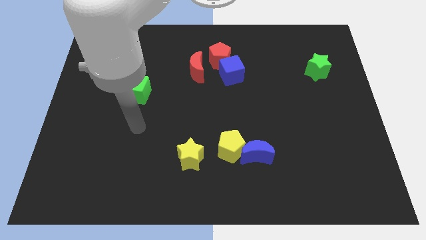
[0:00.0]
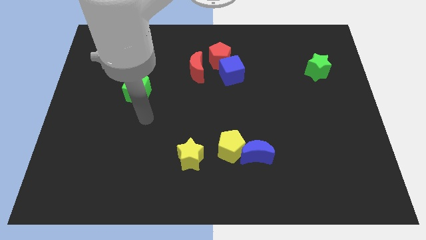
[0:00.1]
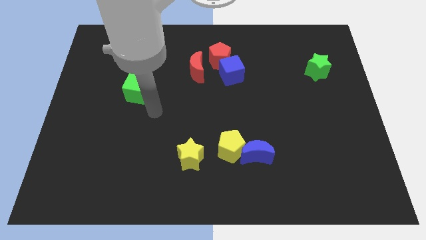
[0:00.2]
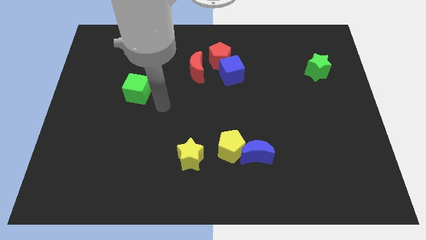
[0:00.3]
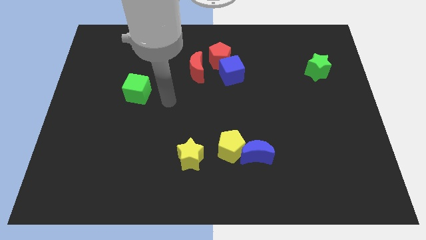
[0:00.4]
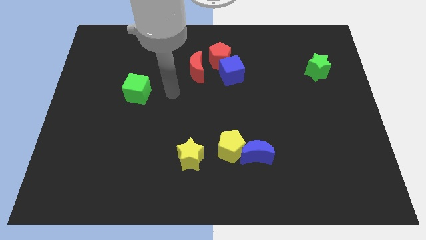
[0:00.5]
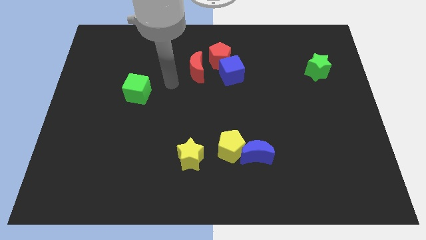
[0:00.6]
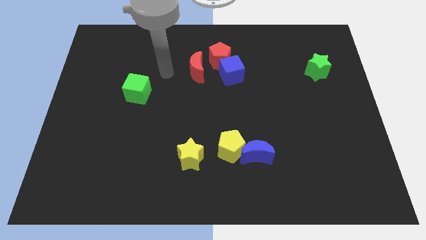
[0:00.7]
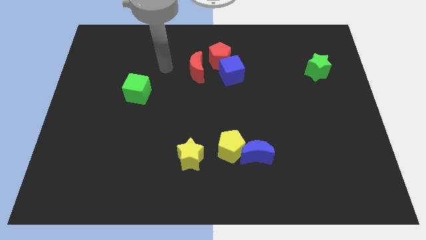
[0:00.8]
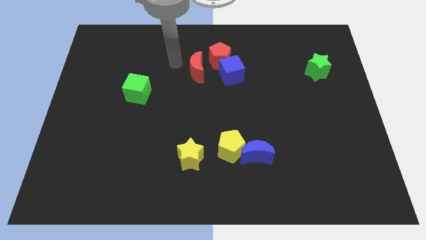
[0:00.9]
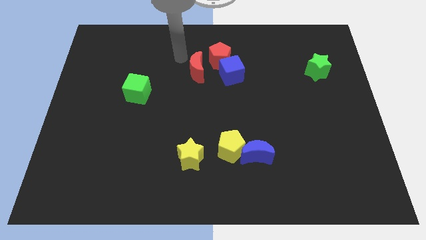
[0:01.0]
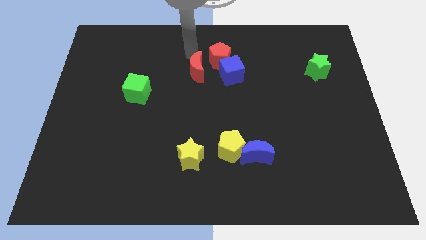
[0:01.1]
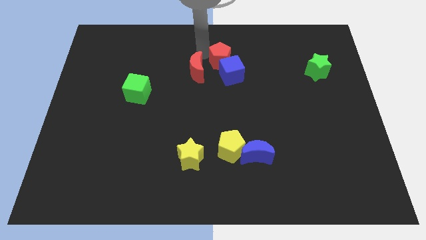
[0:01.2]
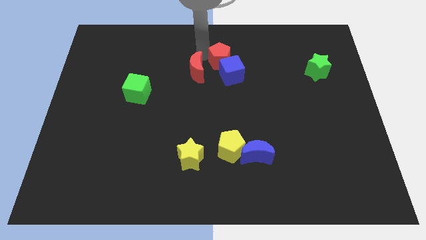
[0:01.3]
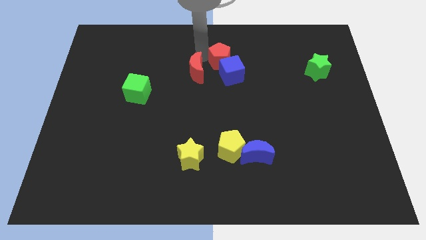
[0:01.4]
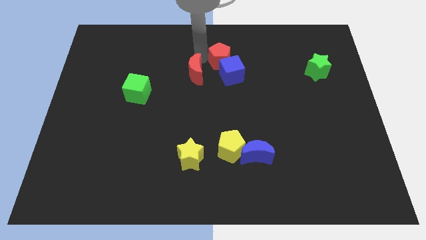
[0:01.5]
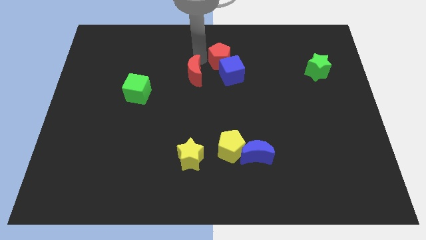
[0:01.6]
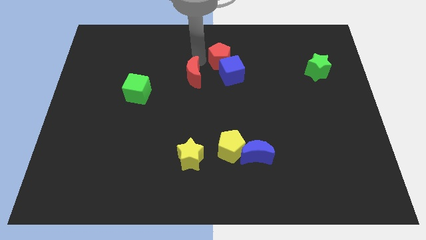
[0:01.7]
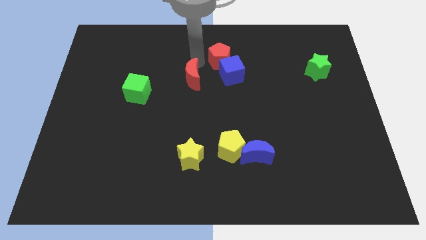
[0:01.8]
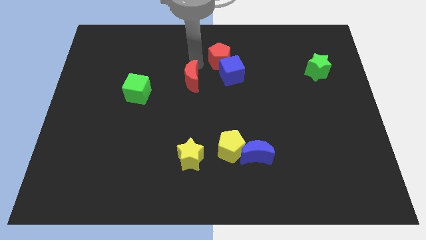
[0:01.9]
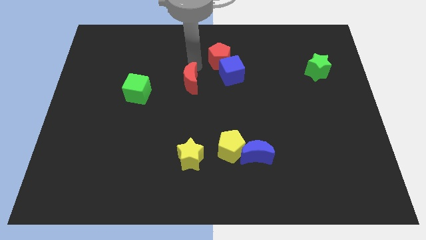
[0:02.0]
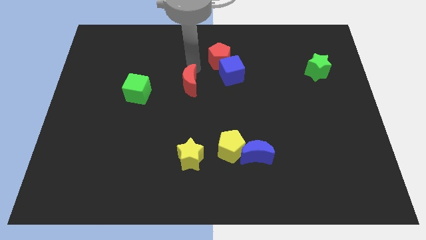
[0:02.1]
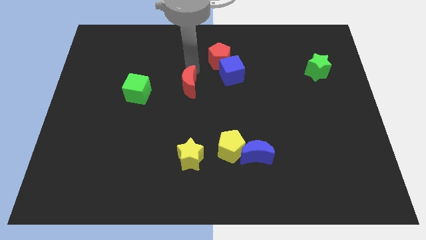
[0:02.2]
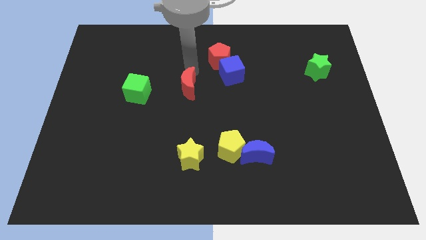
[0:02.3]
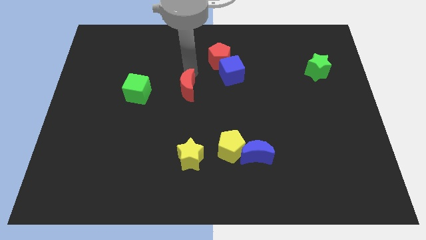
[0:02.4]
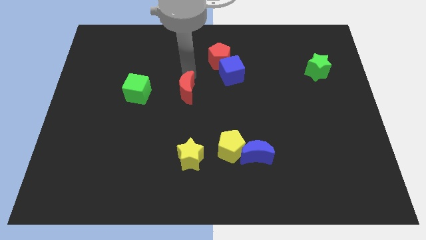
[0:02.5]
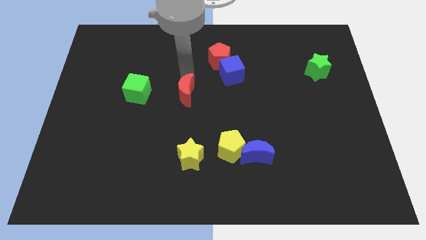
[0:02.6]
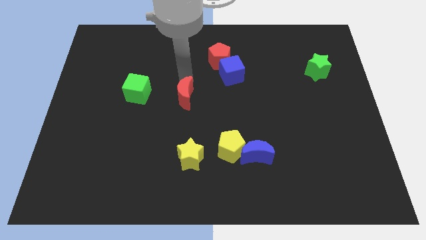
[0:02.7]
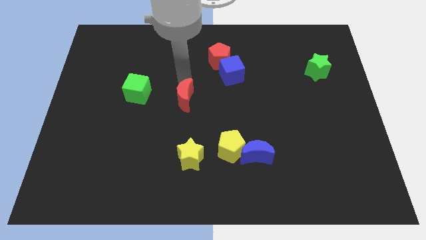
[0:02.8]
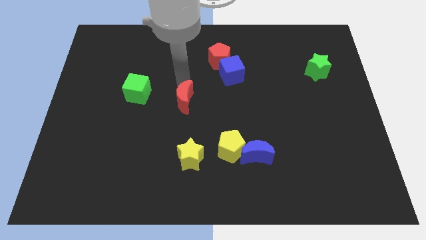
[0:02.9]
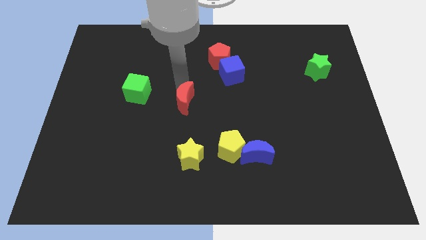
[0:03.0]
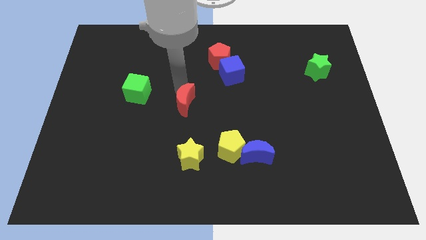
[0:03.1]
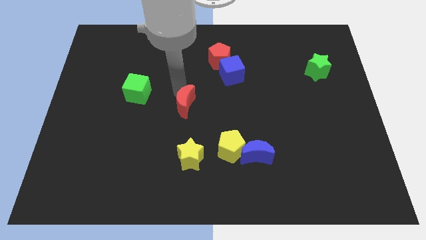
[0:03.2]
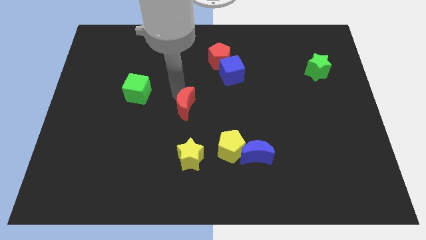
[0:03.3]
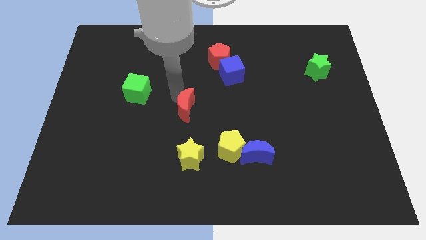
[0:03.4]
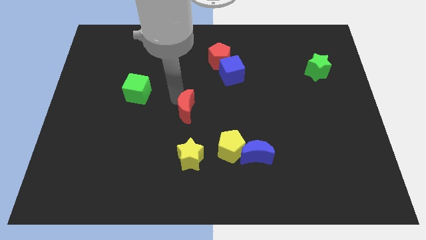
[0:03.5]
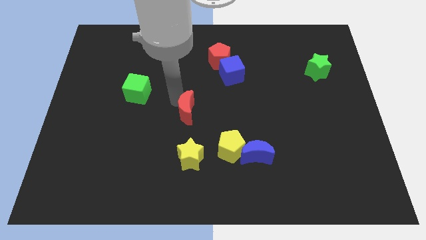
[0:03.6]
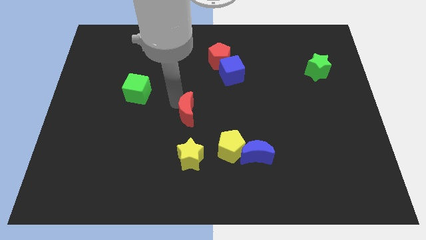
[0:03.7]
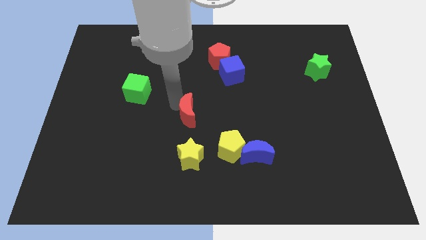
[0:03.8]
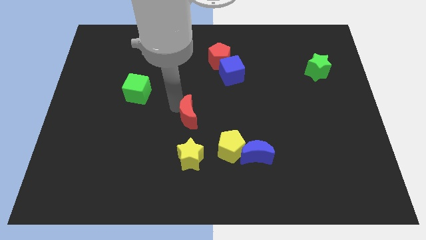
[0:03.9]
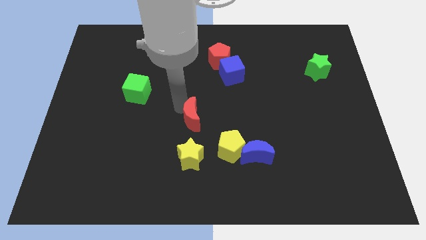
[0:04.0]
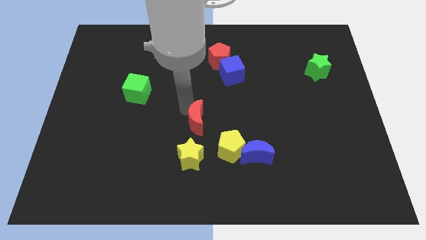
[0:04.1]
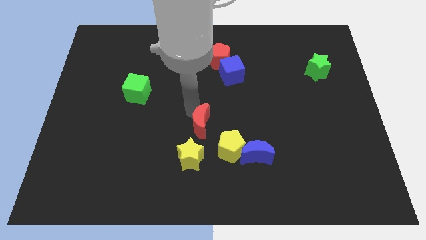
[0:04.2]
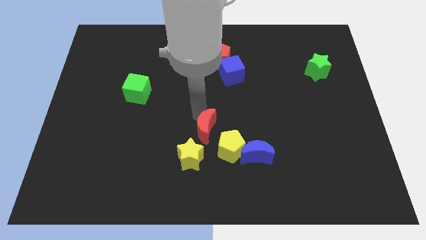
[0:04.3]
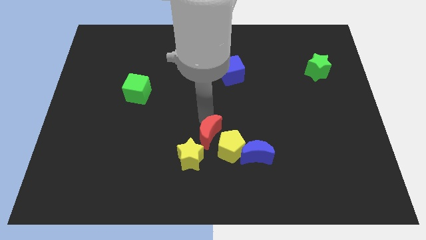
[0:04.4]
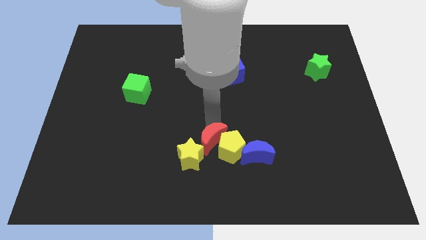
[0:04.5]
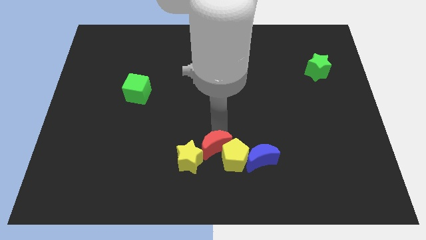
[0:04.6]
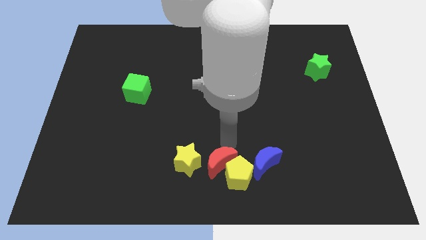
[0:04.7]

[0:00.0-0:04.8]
move the red moon to the bottom side

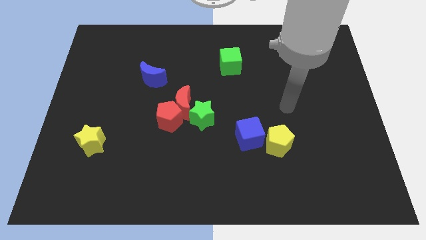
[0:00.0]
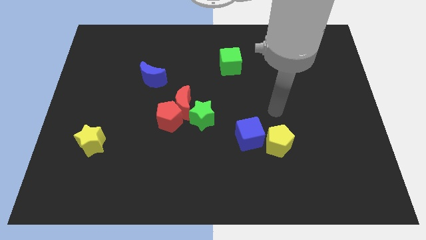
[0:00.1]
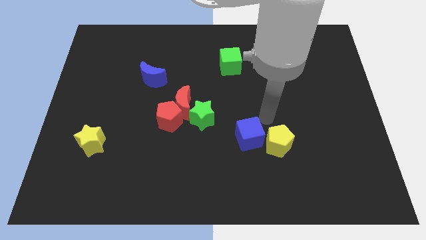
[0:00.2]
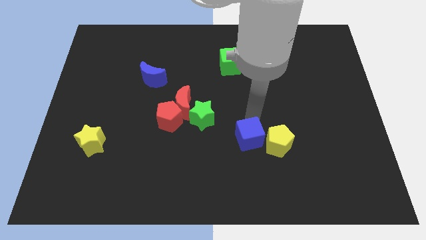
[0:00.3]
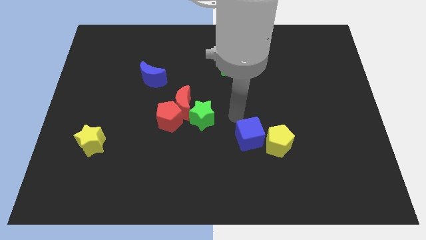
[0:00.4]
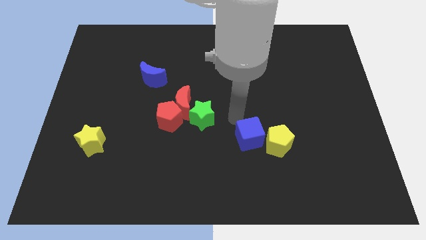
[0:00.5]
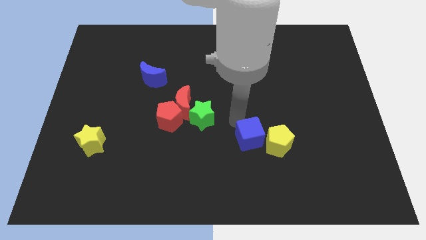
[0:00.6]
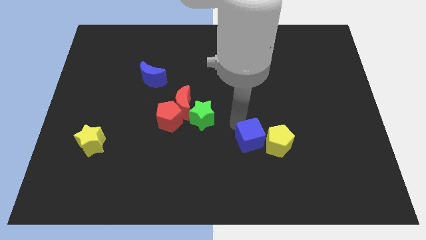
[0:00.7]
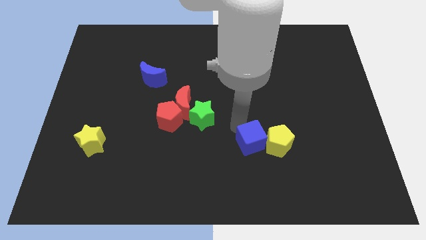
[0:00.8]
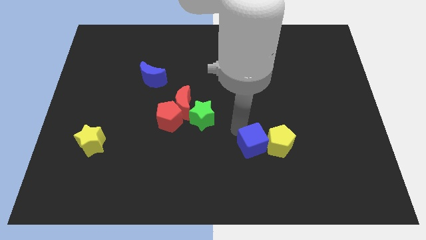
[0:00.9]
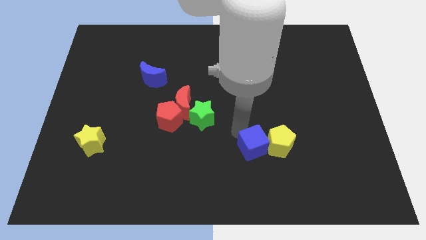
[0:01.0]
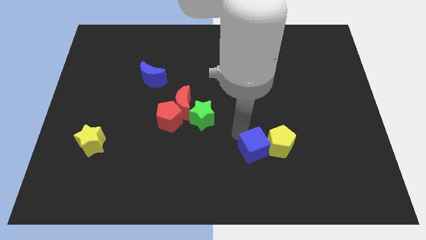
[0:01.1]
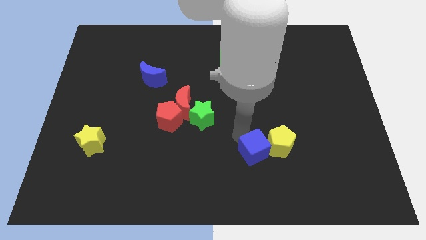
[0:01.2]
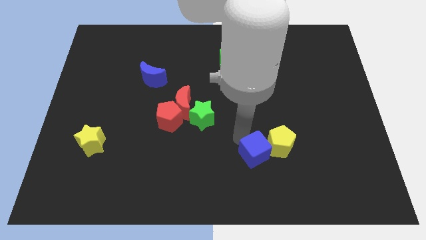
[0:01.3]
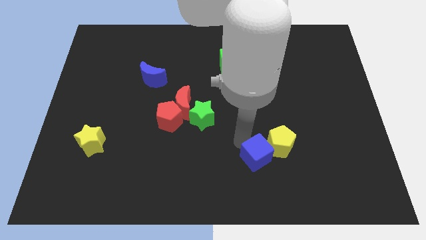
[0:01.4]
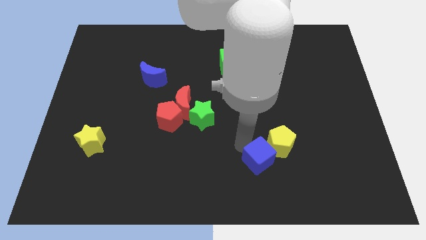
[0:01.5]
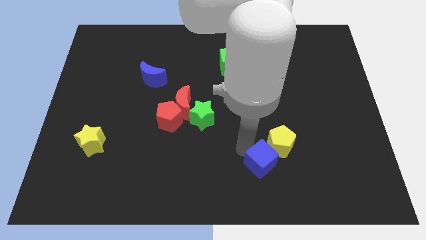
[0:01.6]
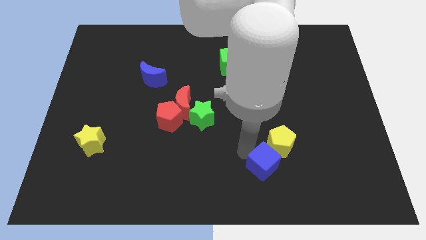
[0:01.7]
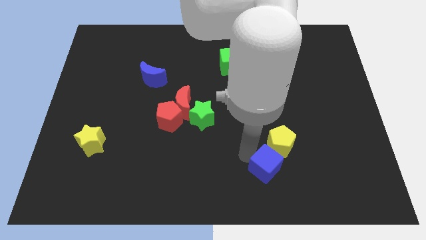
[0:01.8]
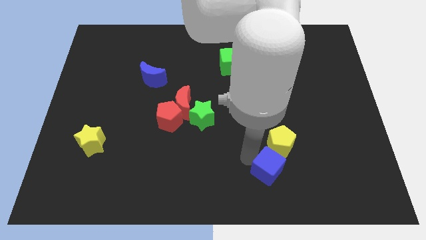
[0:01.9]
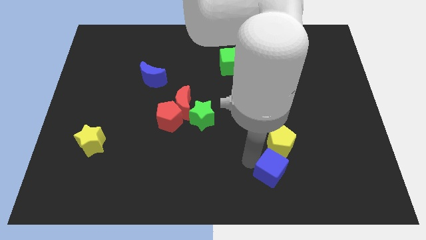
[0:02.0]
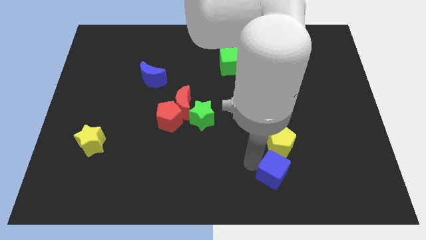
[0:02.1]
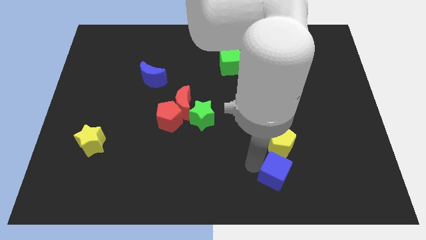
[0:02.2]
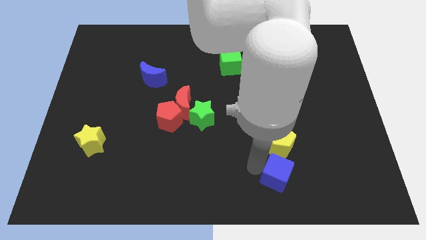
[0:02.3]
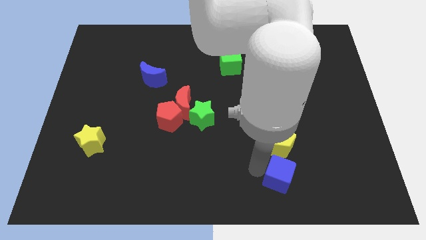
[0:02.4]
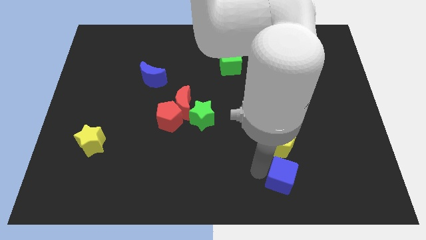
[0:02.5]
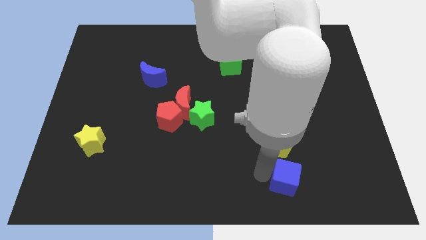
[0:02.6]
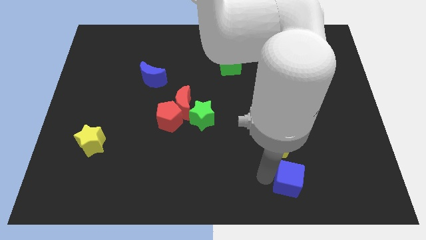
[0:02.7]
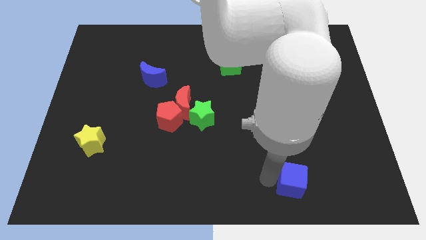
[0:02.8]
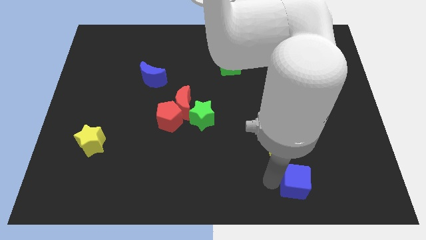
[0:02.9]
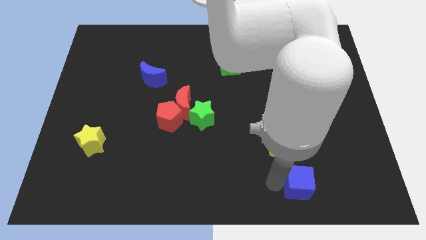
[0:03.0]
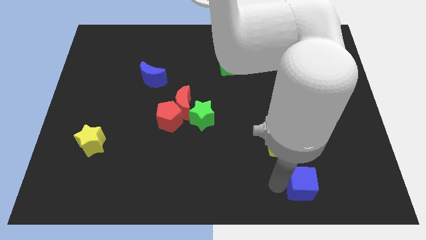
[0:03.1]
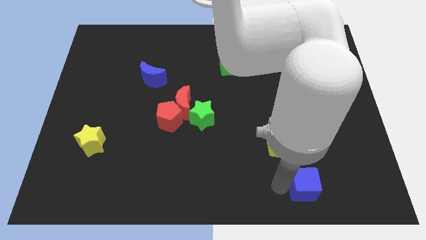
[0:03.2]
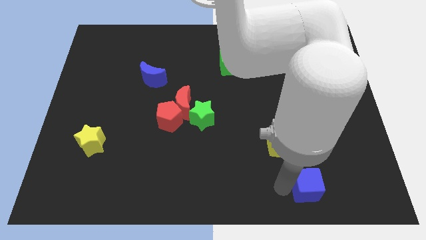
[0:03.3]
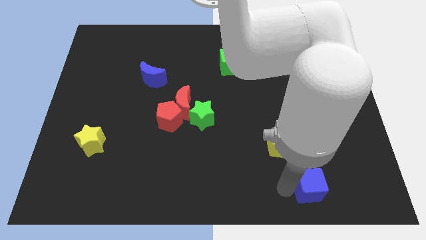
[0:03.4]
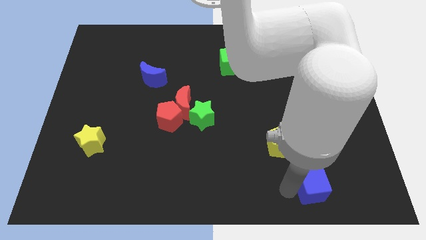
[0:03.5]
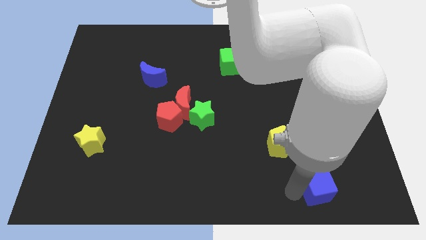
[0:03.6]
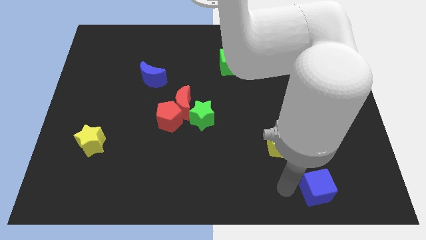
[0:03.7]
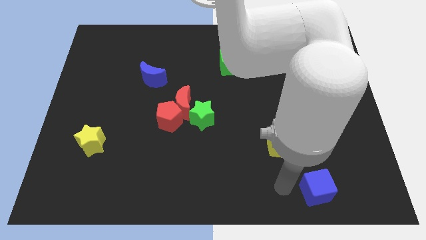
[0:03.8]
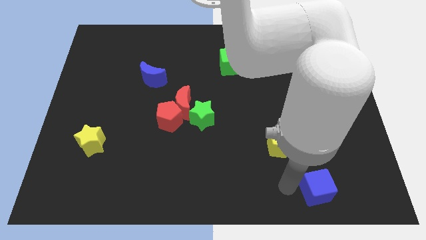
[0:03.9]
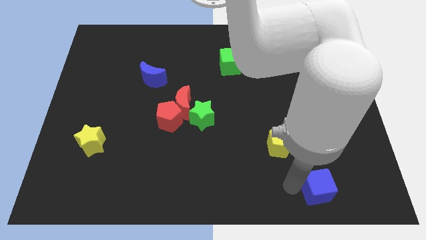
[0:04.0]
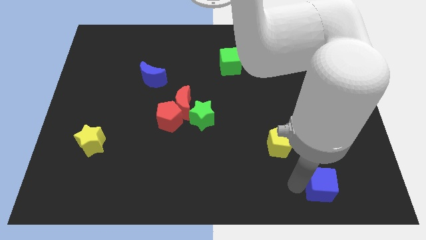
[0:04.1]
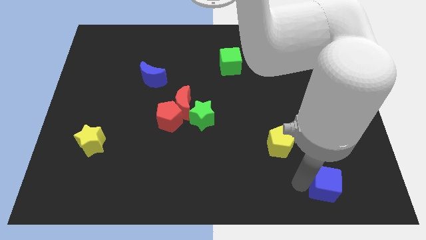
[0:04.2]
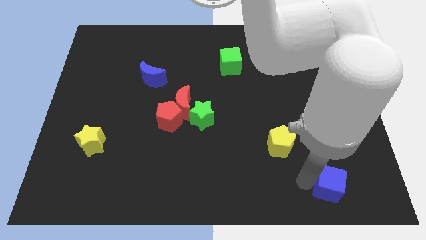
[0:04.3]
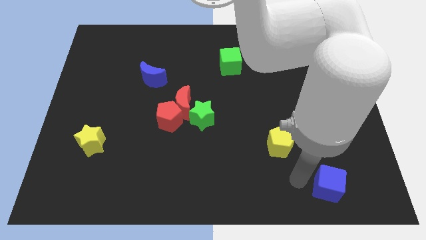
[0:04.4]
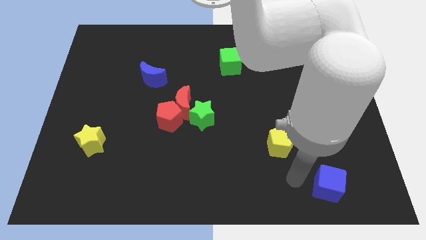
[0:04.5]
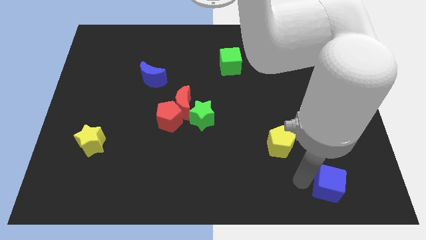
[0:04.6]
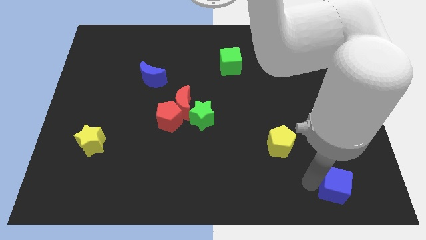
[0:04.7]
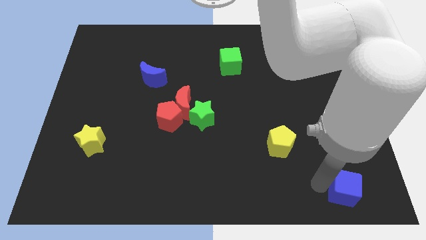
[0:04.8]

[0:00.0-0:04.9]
move the blue cube to the lower right corner
